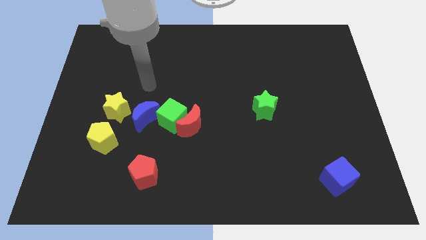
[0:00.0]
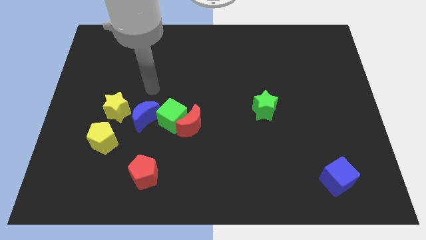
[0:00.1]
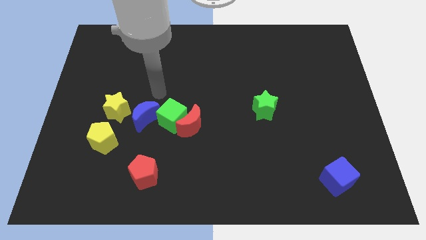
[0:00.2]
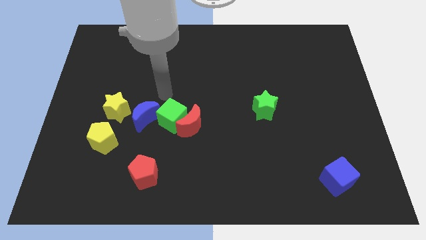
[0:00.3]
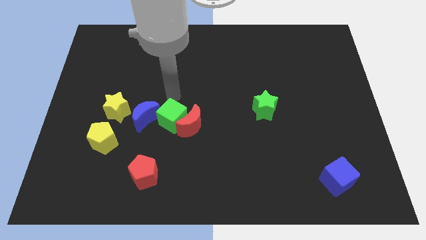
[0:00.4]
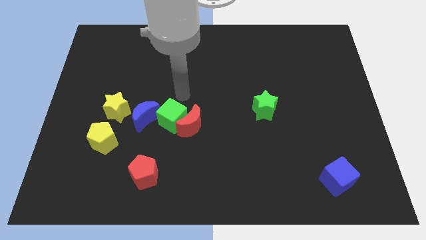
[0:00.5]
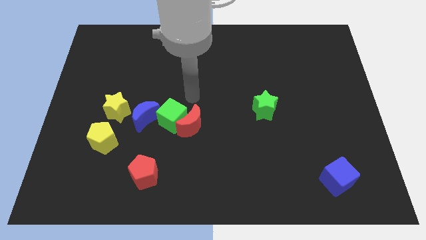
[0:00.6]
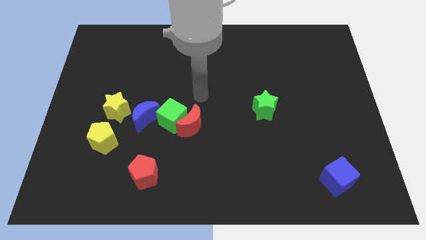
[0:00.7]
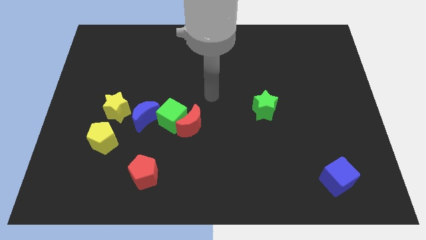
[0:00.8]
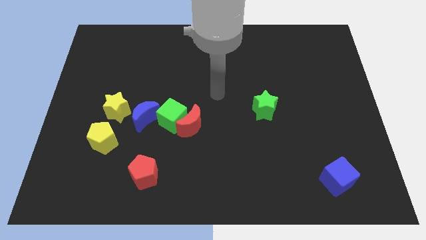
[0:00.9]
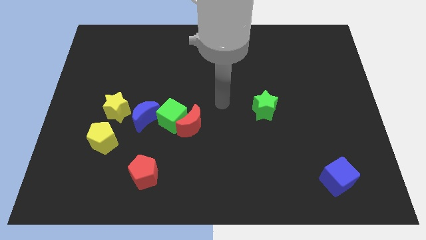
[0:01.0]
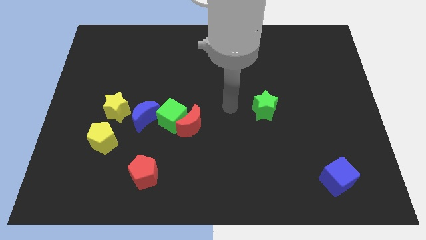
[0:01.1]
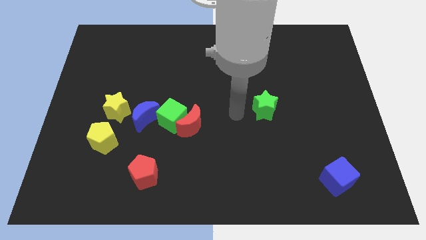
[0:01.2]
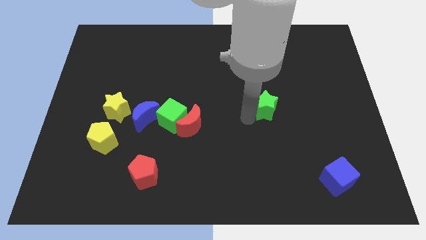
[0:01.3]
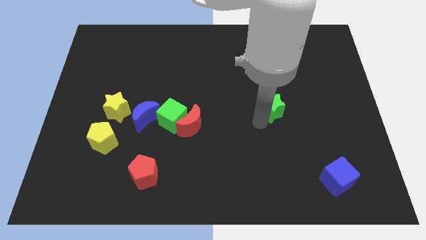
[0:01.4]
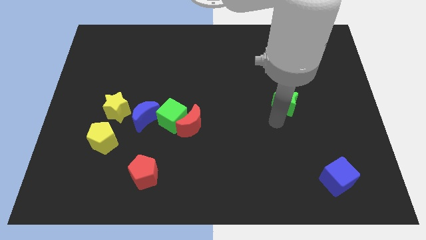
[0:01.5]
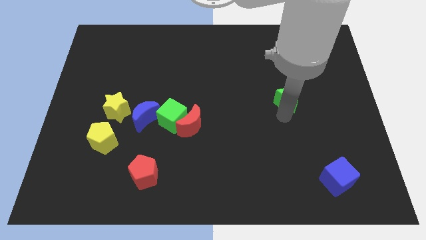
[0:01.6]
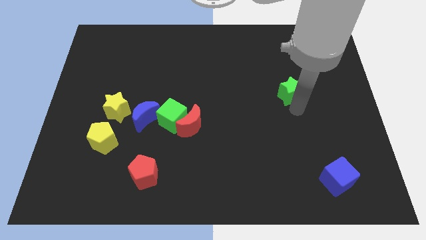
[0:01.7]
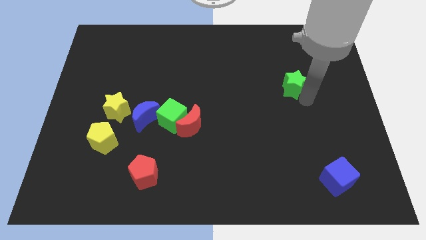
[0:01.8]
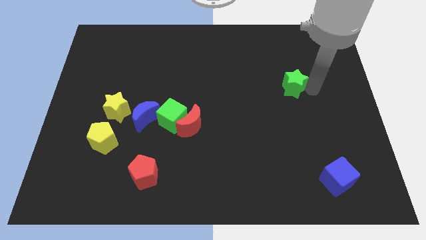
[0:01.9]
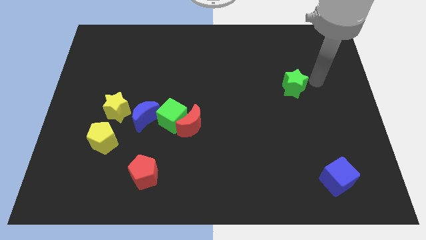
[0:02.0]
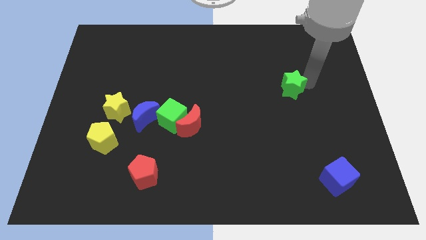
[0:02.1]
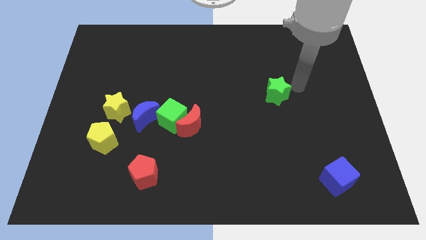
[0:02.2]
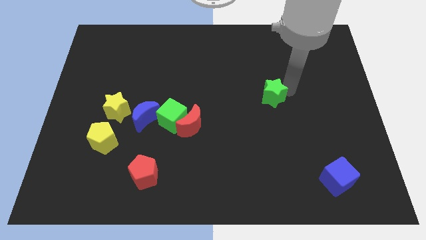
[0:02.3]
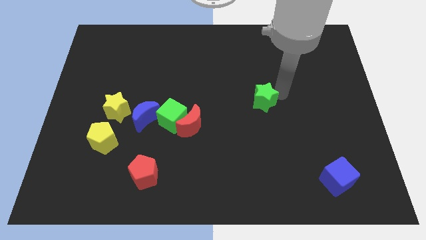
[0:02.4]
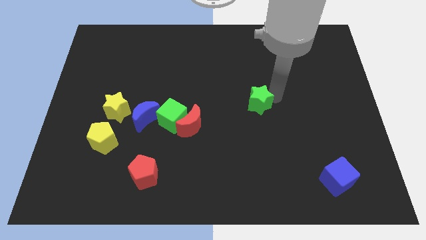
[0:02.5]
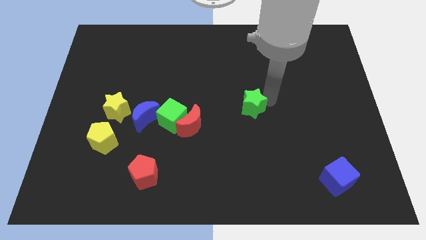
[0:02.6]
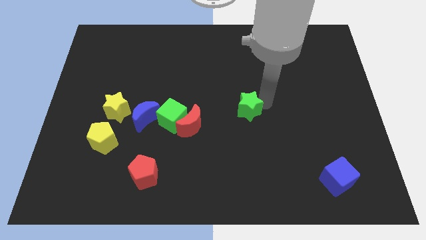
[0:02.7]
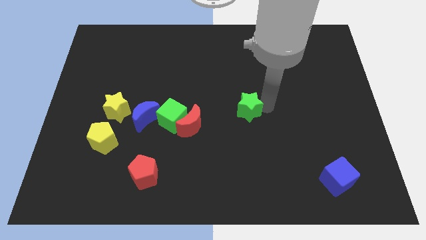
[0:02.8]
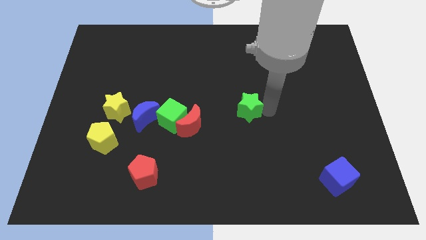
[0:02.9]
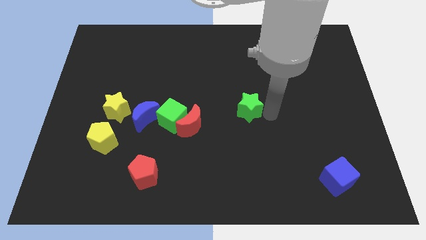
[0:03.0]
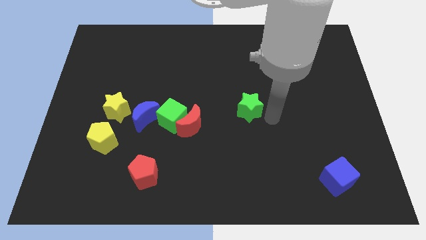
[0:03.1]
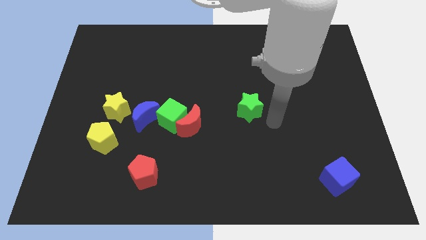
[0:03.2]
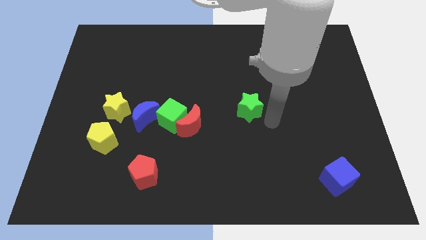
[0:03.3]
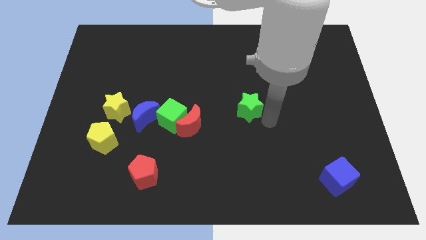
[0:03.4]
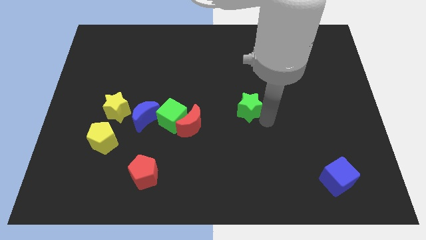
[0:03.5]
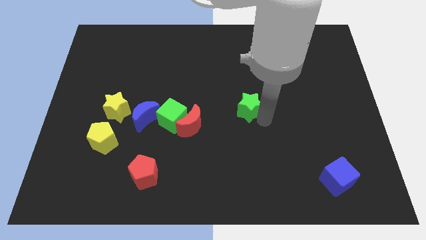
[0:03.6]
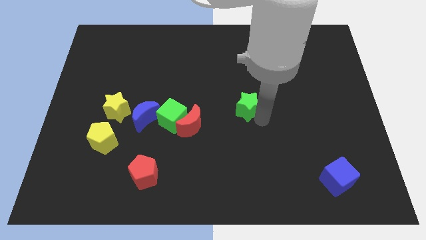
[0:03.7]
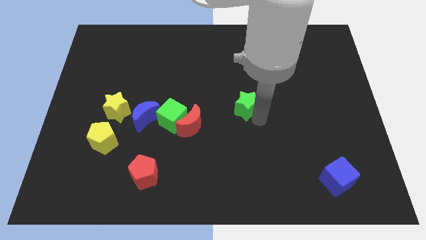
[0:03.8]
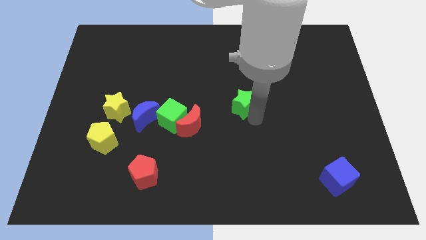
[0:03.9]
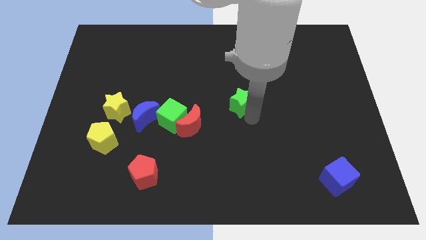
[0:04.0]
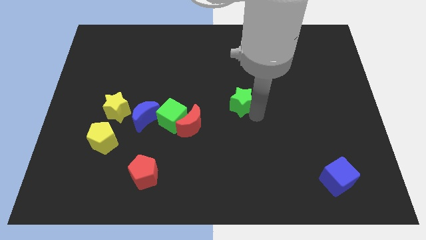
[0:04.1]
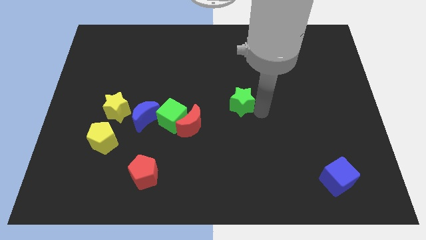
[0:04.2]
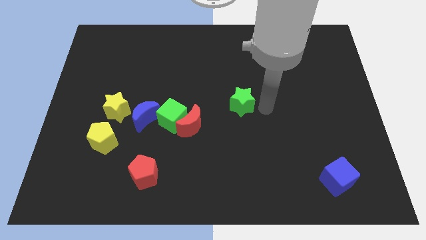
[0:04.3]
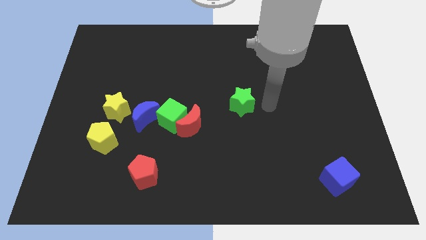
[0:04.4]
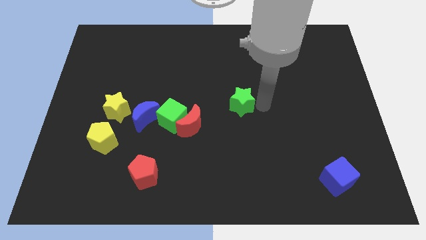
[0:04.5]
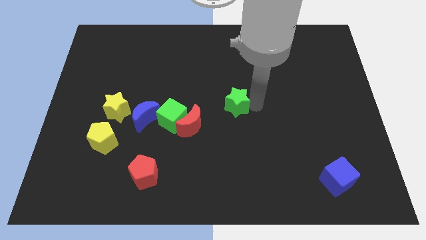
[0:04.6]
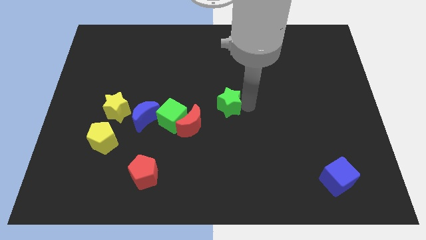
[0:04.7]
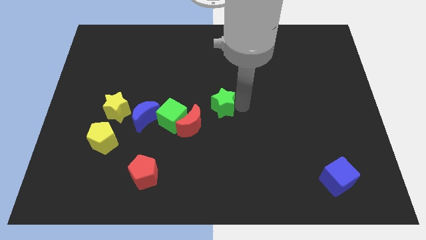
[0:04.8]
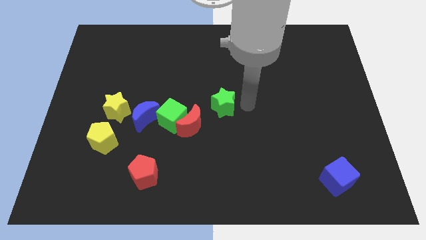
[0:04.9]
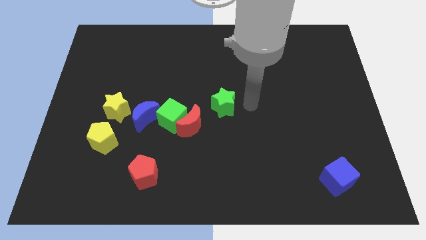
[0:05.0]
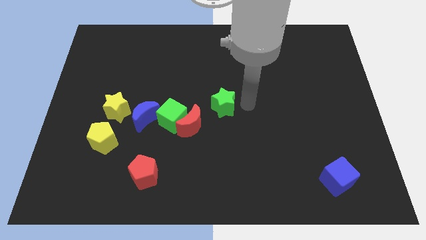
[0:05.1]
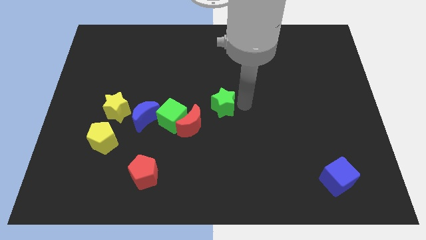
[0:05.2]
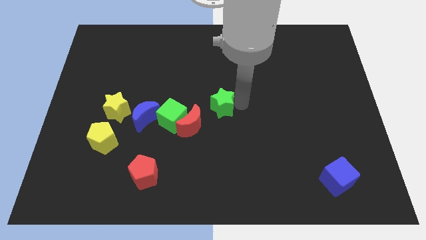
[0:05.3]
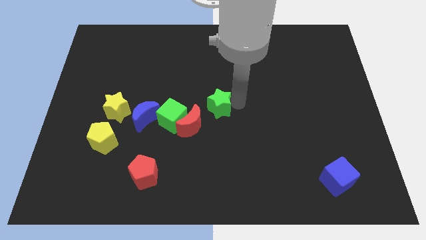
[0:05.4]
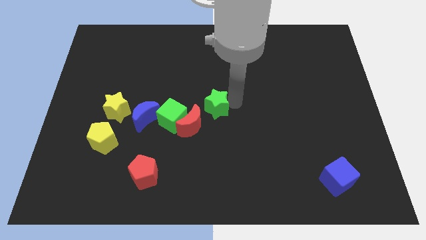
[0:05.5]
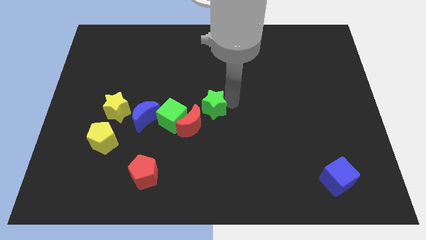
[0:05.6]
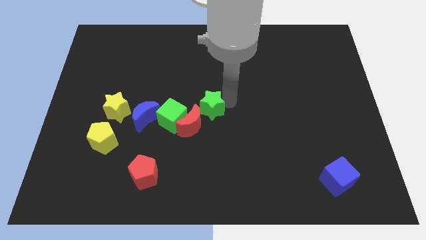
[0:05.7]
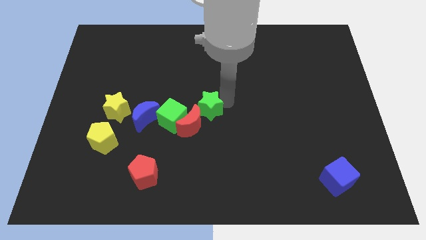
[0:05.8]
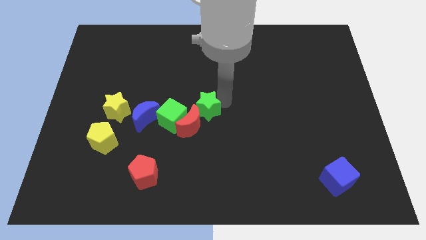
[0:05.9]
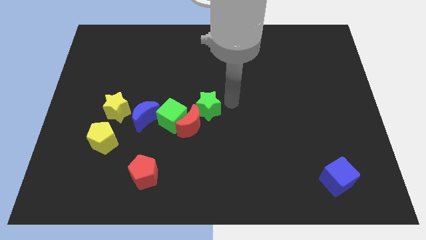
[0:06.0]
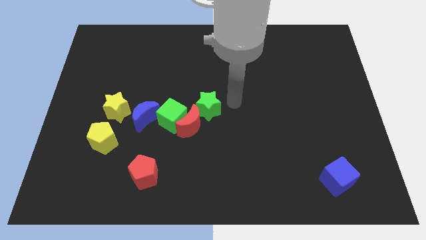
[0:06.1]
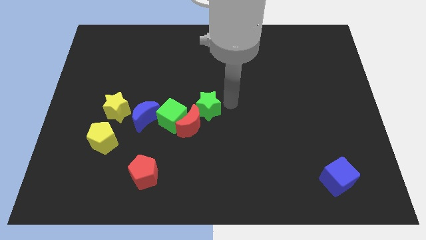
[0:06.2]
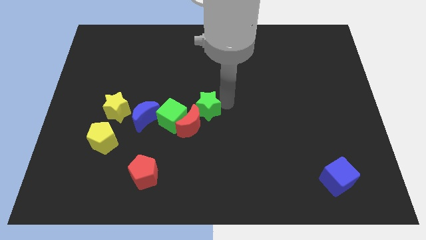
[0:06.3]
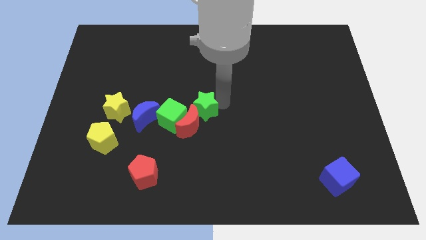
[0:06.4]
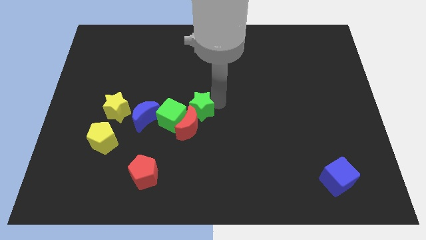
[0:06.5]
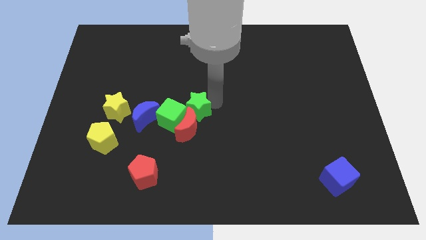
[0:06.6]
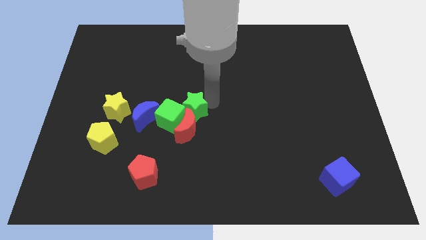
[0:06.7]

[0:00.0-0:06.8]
move the green star next to the green cube
